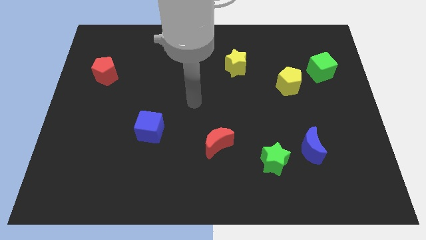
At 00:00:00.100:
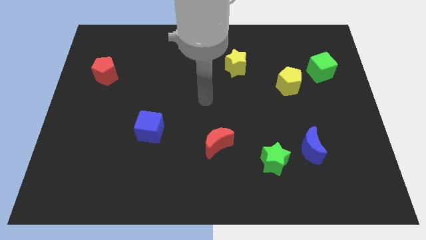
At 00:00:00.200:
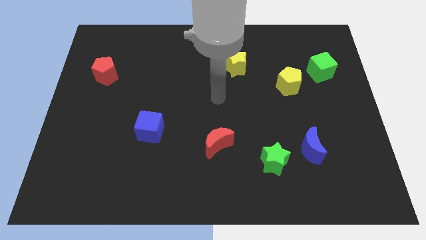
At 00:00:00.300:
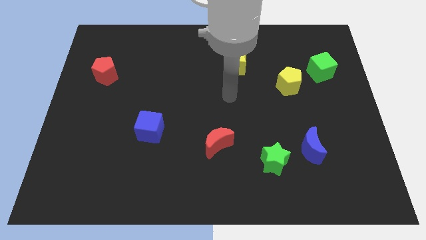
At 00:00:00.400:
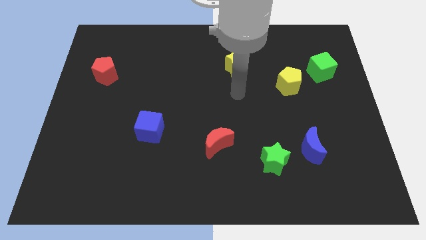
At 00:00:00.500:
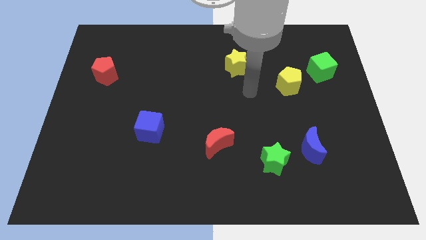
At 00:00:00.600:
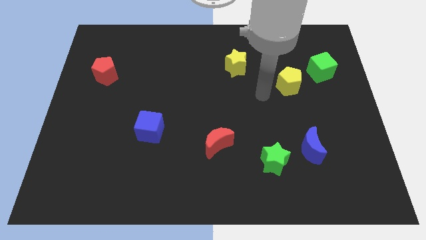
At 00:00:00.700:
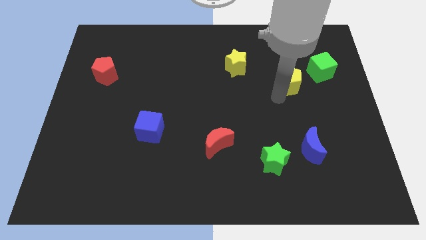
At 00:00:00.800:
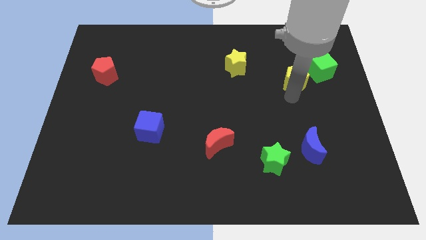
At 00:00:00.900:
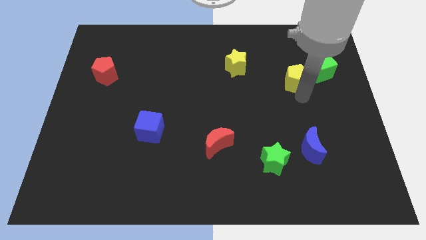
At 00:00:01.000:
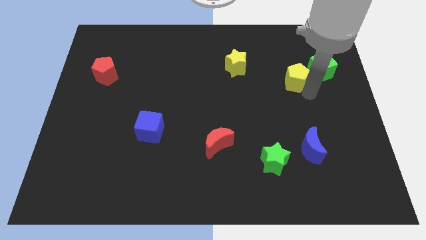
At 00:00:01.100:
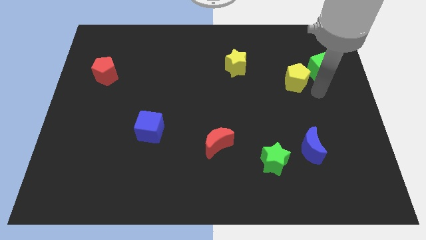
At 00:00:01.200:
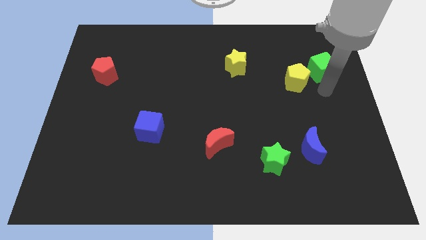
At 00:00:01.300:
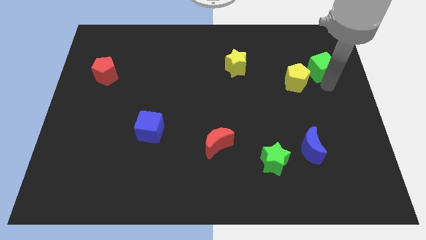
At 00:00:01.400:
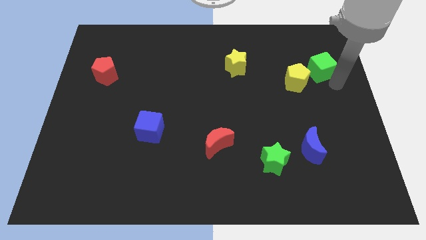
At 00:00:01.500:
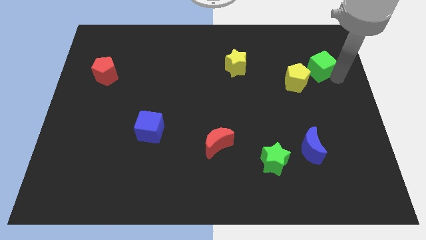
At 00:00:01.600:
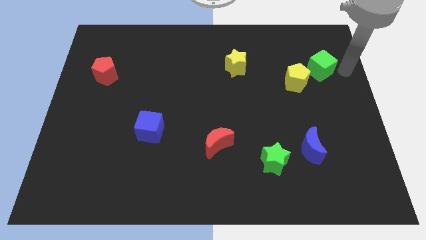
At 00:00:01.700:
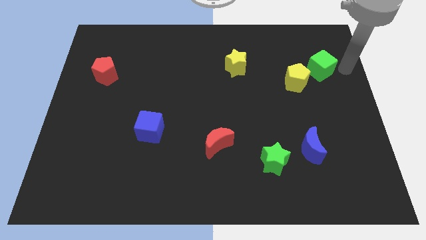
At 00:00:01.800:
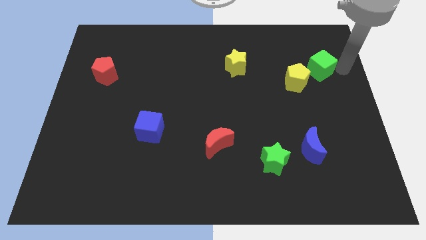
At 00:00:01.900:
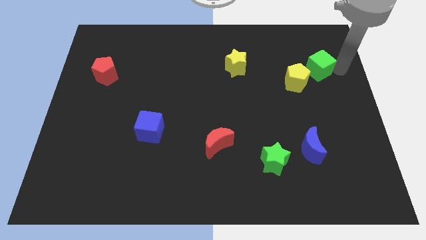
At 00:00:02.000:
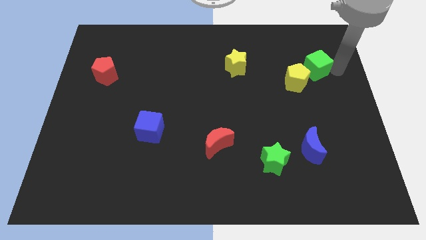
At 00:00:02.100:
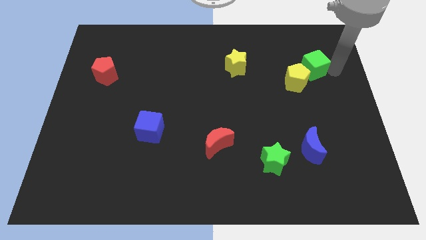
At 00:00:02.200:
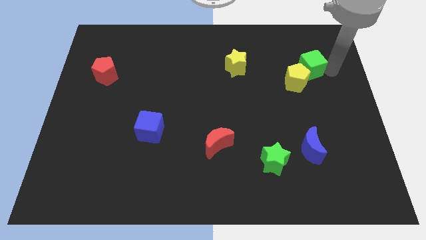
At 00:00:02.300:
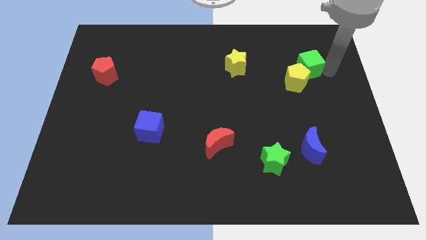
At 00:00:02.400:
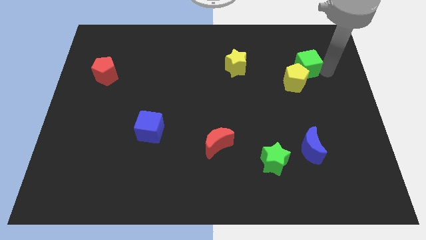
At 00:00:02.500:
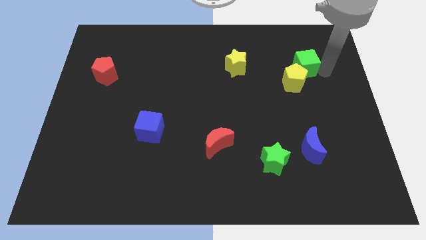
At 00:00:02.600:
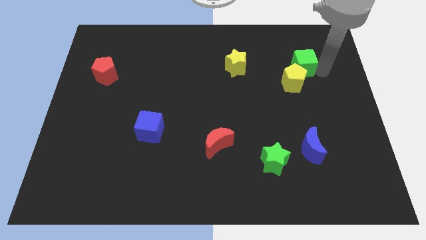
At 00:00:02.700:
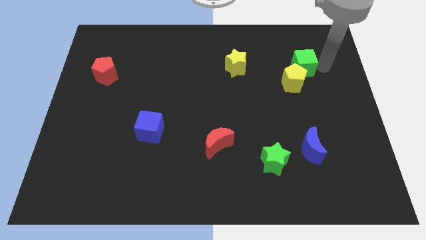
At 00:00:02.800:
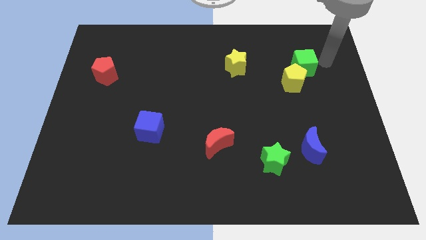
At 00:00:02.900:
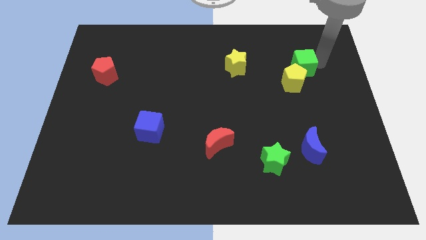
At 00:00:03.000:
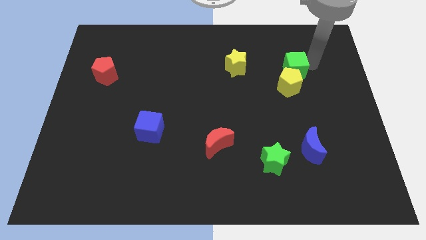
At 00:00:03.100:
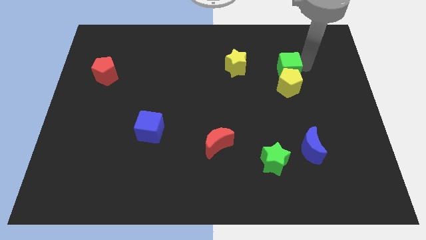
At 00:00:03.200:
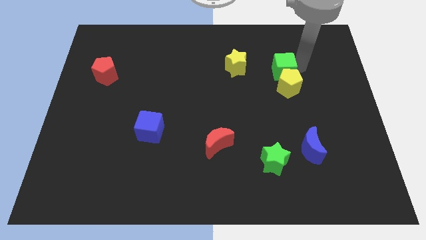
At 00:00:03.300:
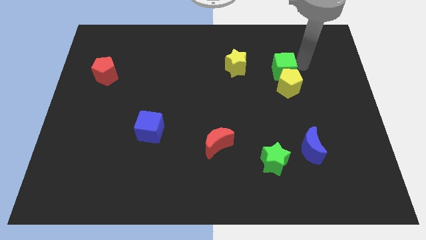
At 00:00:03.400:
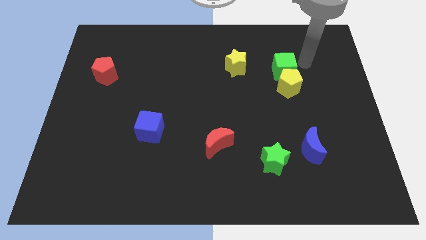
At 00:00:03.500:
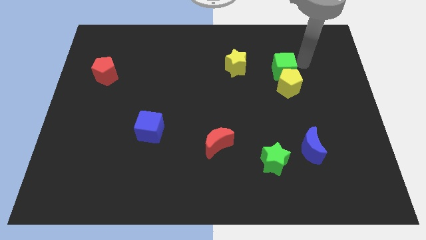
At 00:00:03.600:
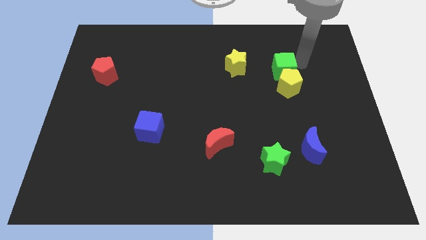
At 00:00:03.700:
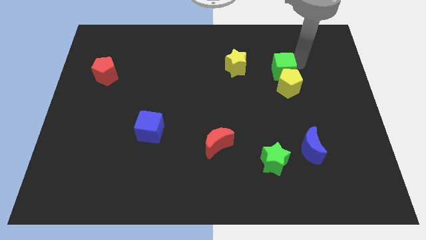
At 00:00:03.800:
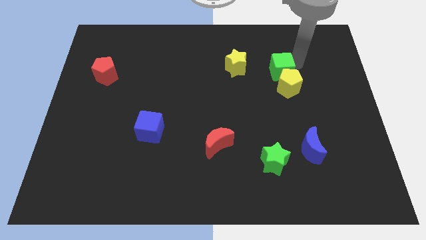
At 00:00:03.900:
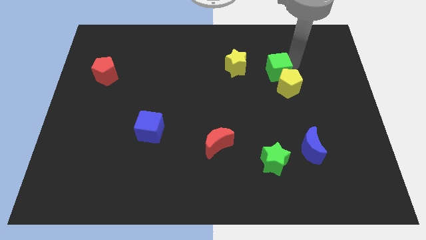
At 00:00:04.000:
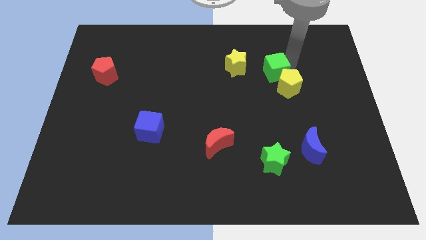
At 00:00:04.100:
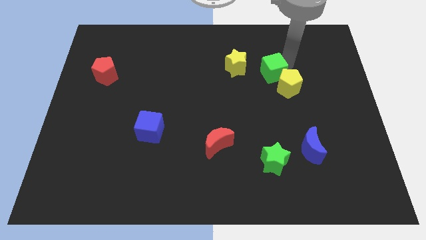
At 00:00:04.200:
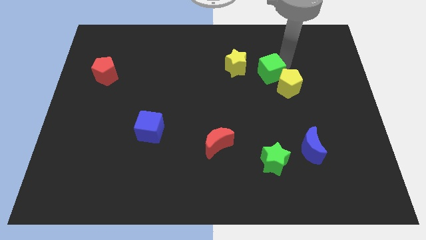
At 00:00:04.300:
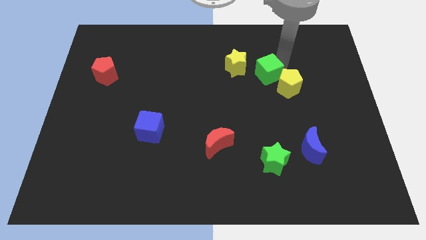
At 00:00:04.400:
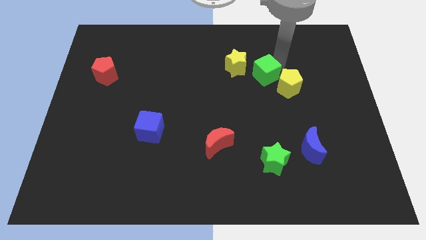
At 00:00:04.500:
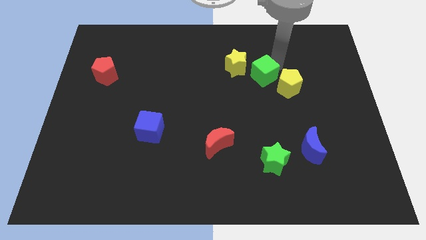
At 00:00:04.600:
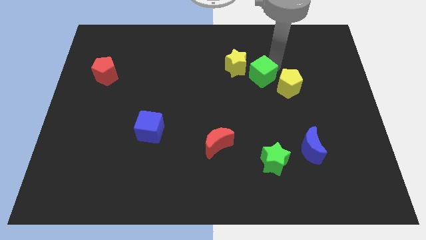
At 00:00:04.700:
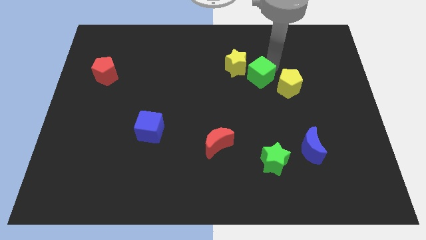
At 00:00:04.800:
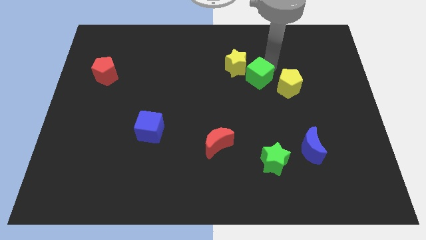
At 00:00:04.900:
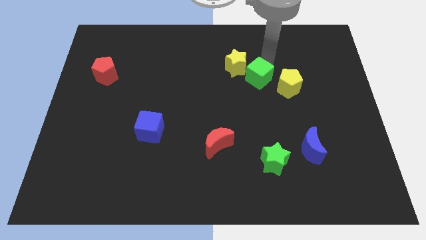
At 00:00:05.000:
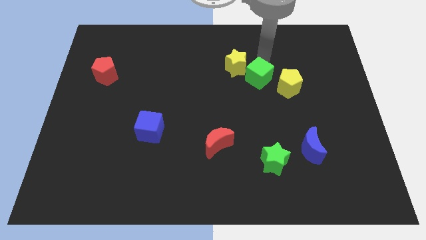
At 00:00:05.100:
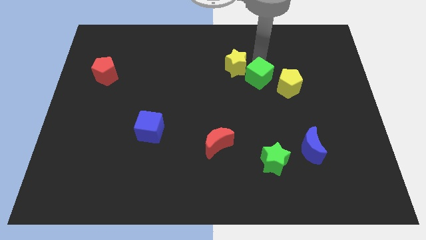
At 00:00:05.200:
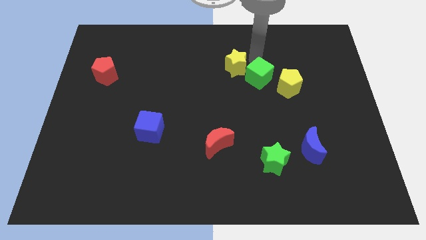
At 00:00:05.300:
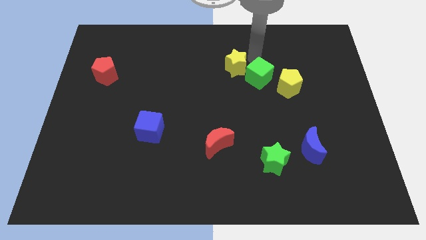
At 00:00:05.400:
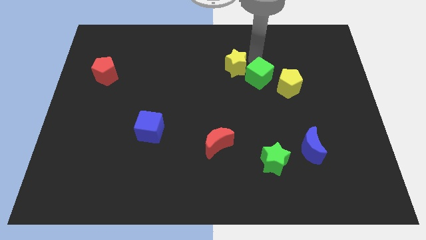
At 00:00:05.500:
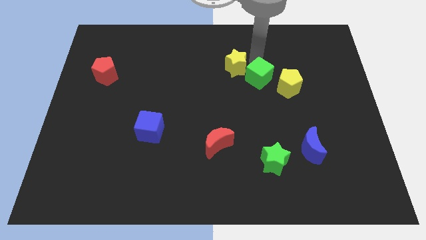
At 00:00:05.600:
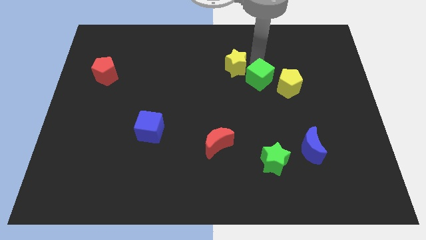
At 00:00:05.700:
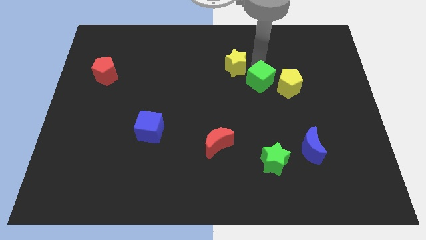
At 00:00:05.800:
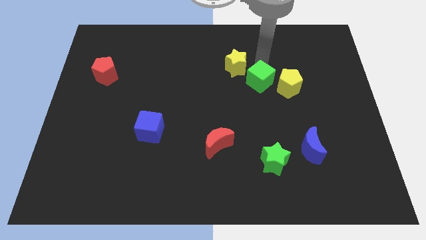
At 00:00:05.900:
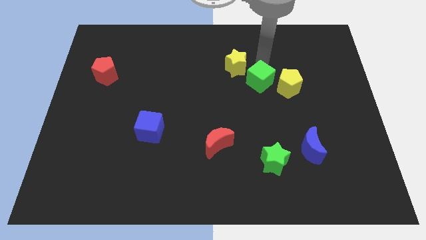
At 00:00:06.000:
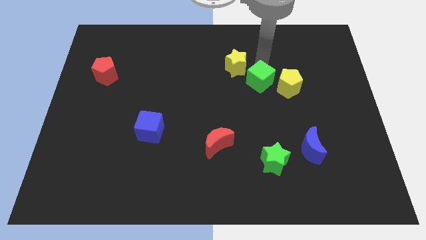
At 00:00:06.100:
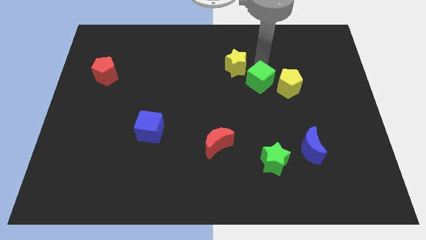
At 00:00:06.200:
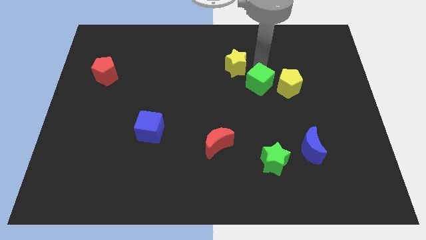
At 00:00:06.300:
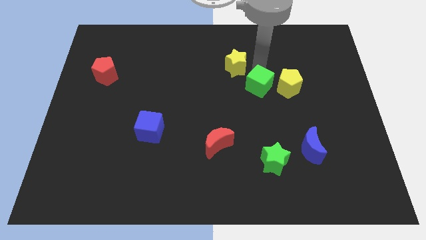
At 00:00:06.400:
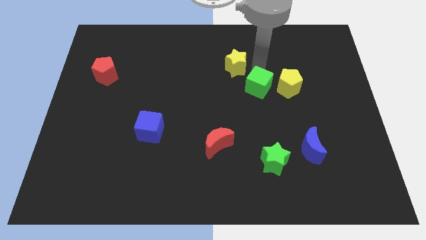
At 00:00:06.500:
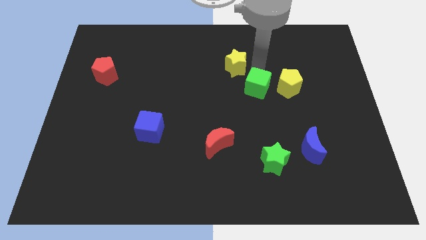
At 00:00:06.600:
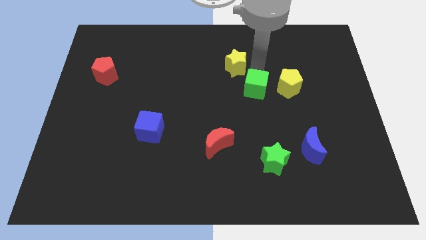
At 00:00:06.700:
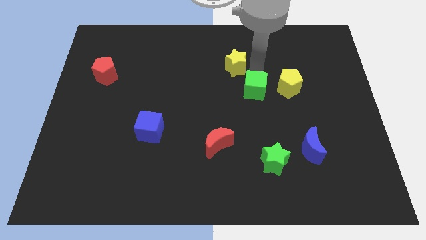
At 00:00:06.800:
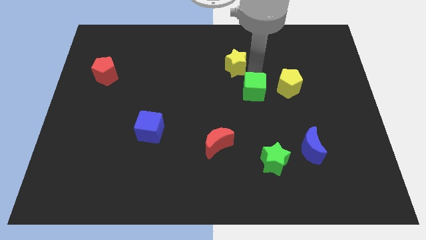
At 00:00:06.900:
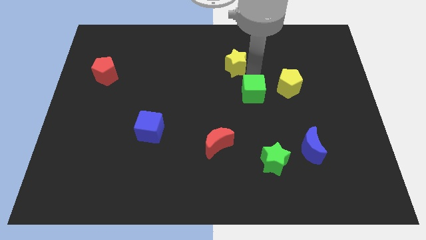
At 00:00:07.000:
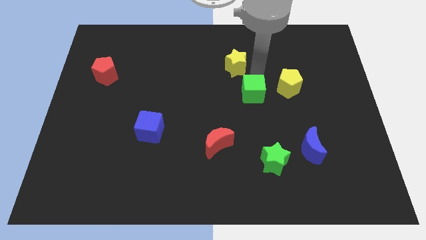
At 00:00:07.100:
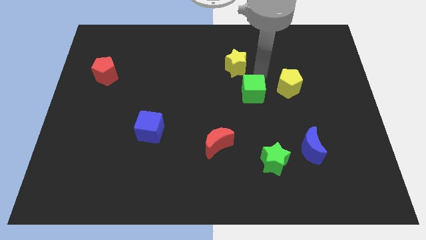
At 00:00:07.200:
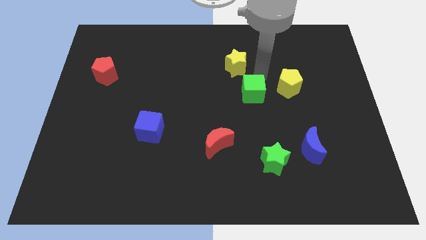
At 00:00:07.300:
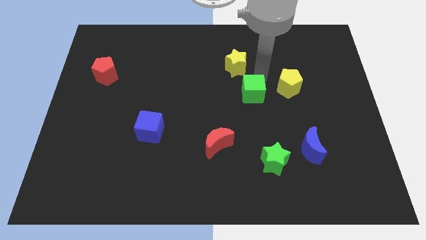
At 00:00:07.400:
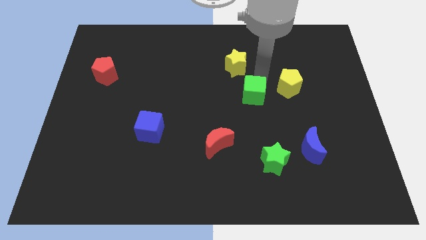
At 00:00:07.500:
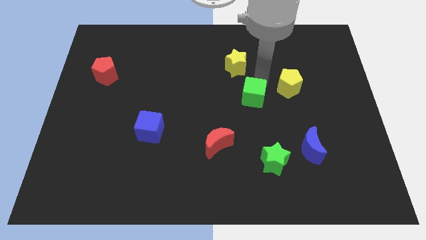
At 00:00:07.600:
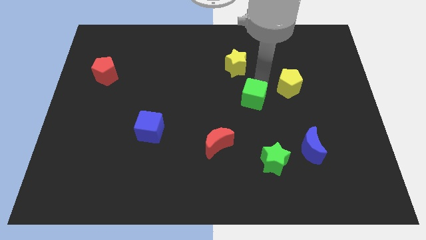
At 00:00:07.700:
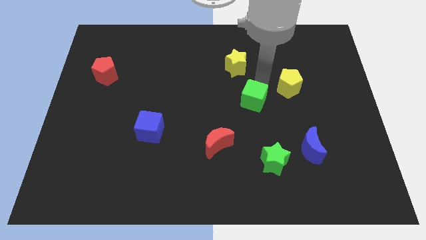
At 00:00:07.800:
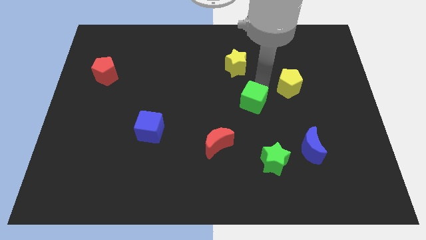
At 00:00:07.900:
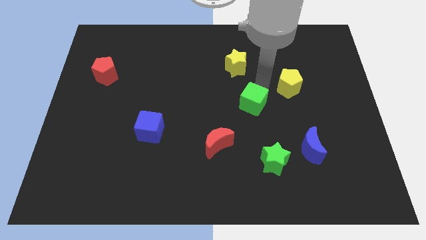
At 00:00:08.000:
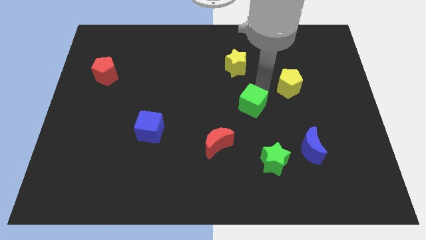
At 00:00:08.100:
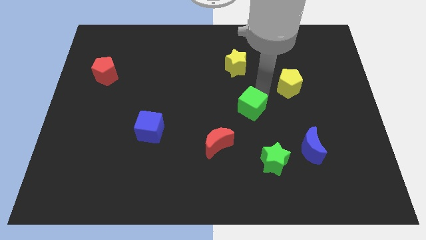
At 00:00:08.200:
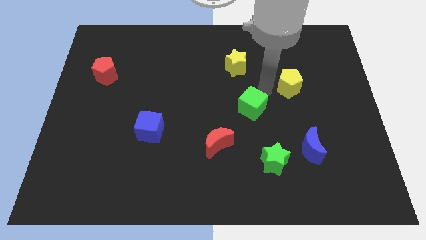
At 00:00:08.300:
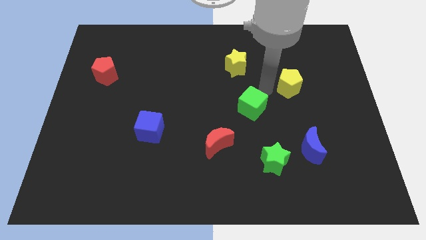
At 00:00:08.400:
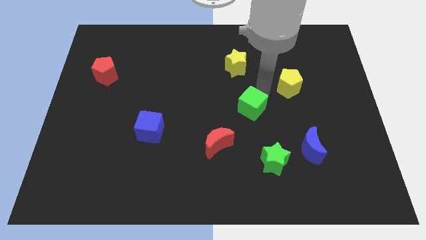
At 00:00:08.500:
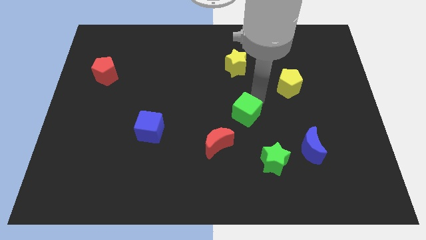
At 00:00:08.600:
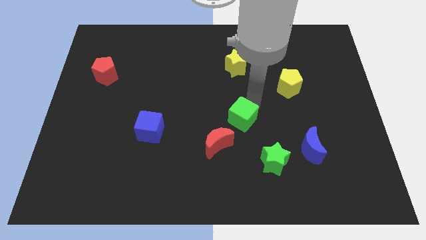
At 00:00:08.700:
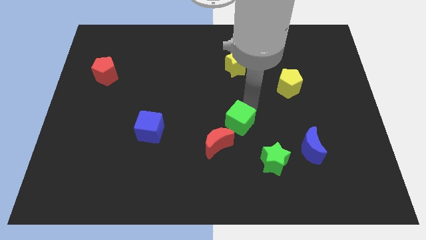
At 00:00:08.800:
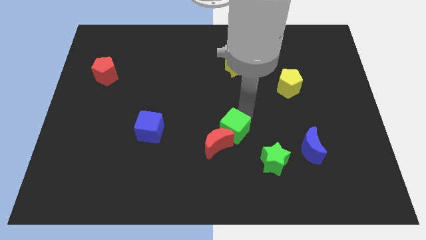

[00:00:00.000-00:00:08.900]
slide the green cube towards the red moon
